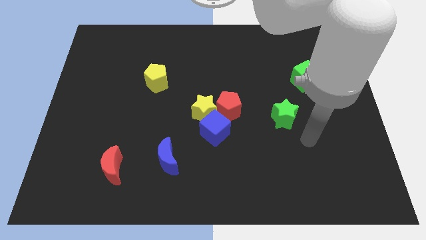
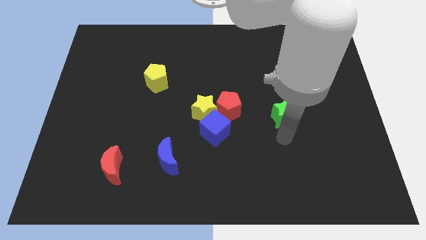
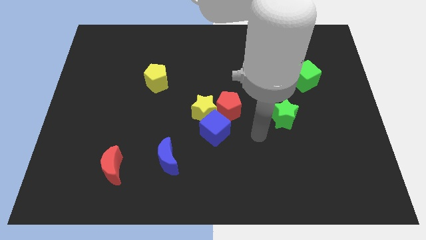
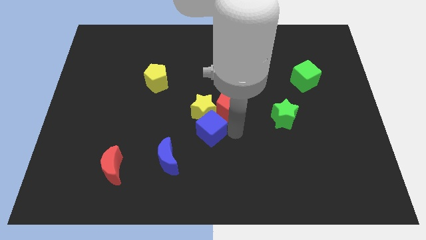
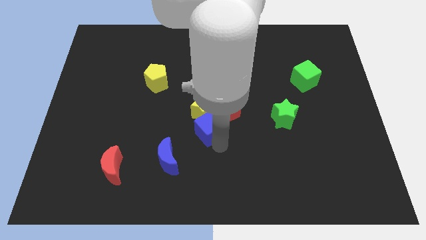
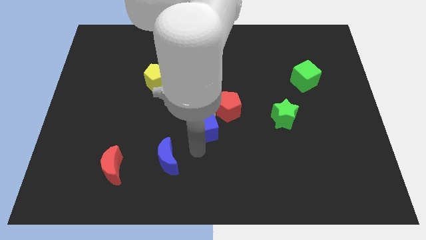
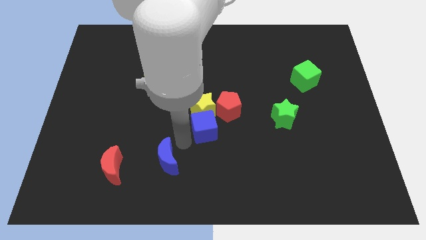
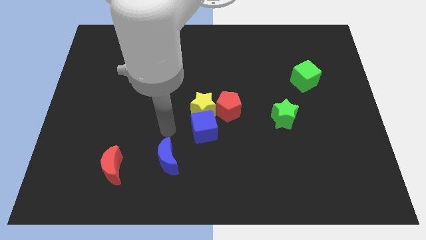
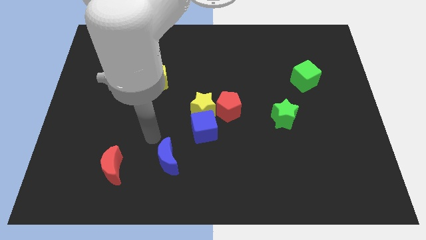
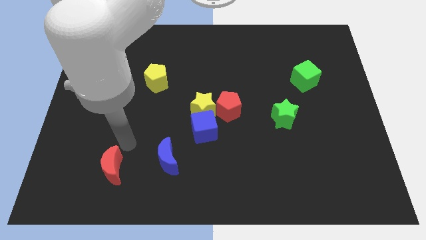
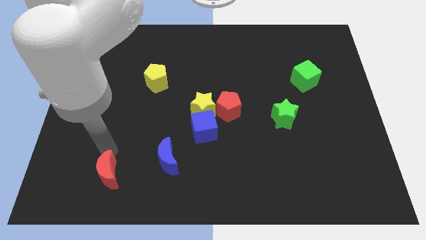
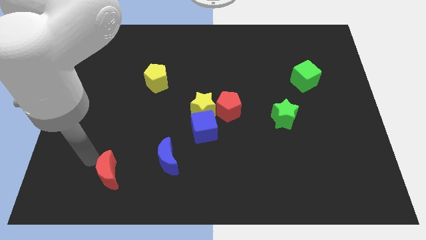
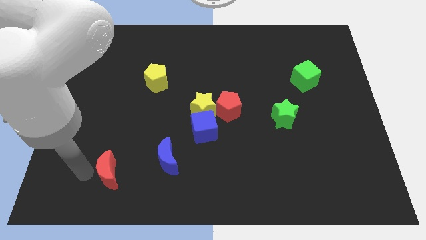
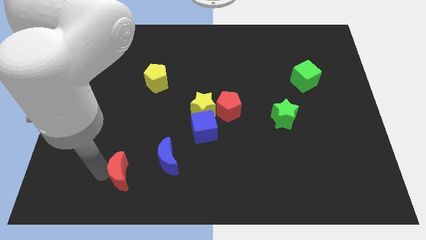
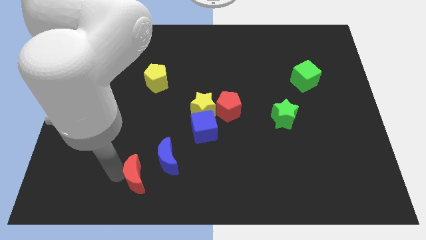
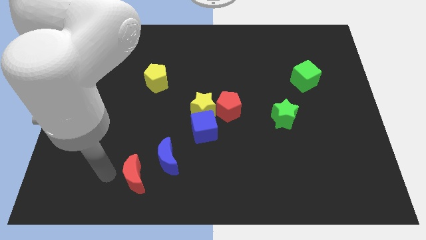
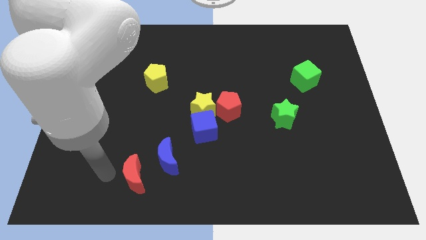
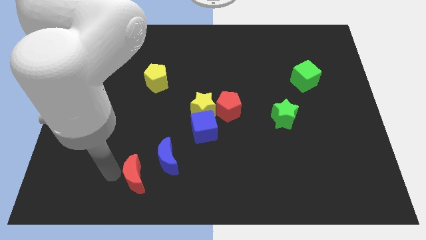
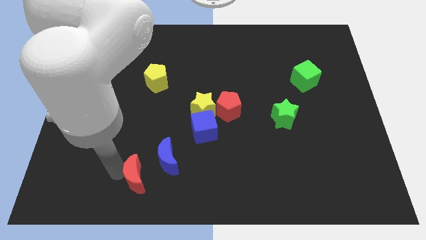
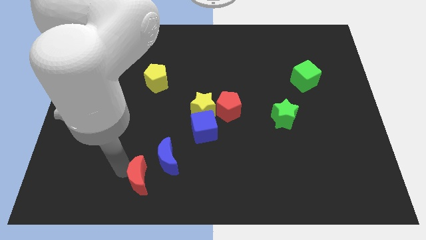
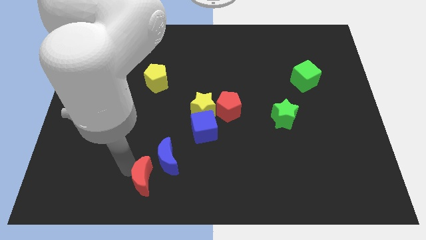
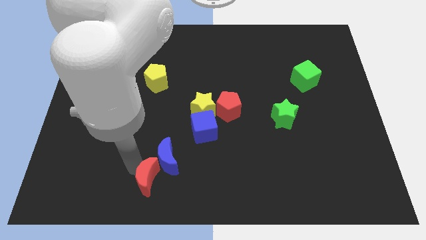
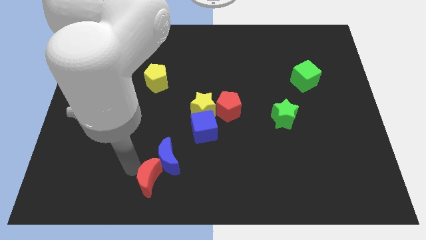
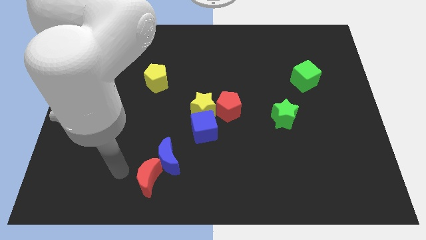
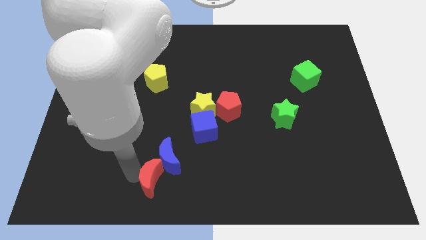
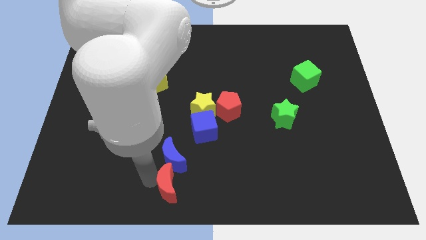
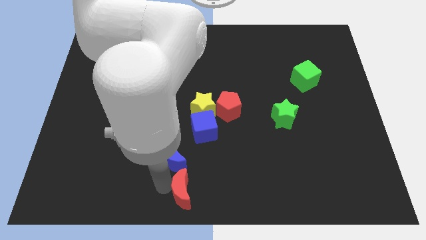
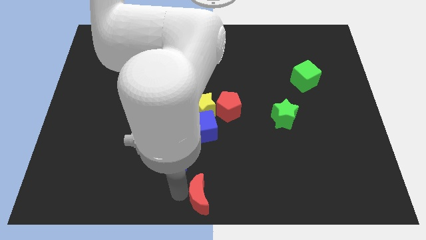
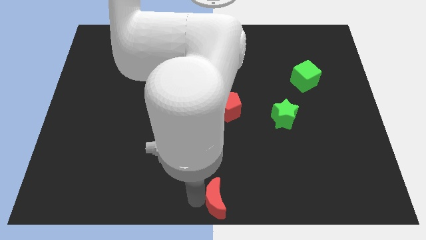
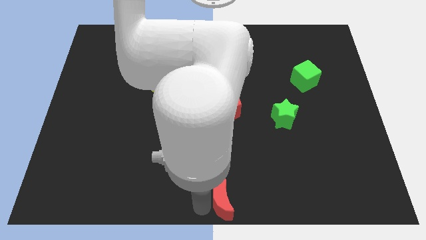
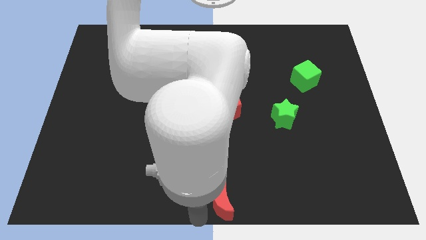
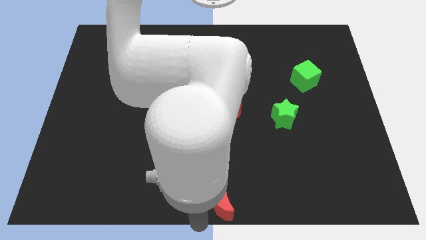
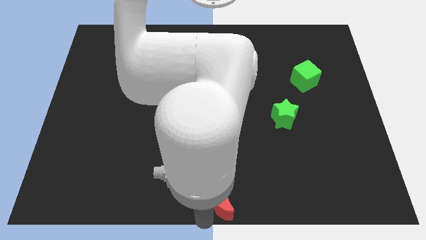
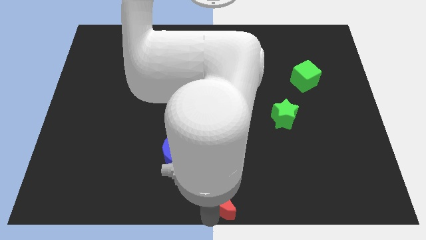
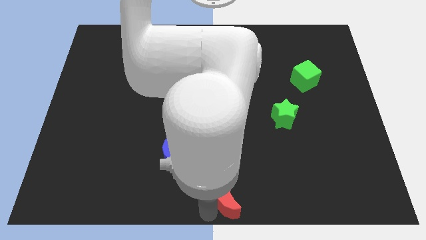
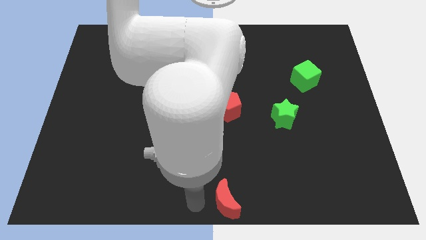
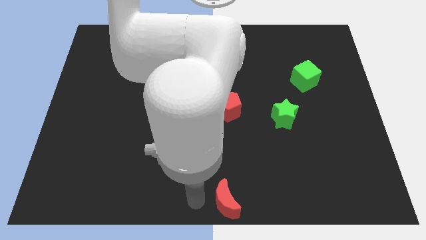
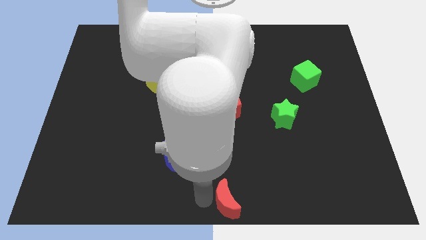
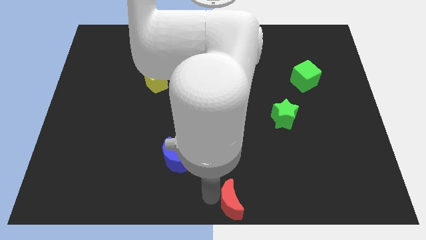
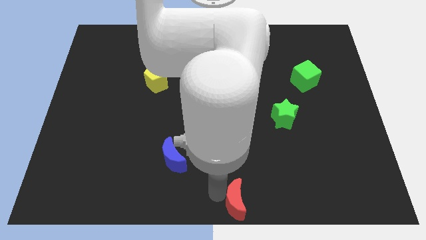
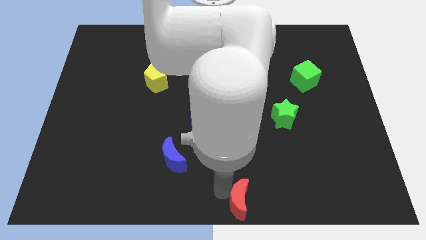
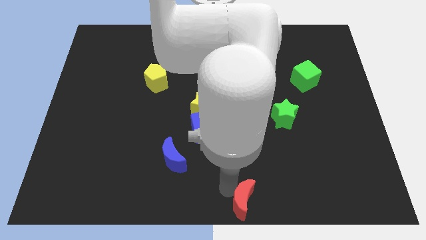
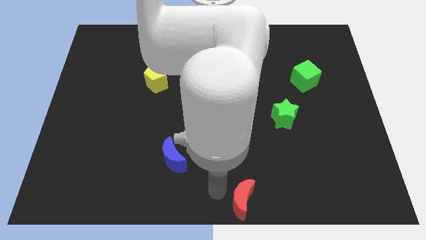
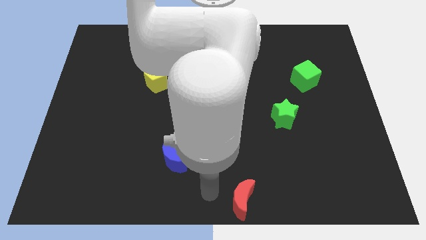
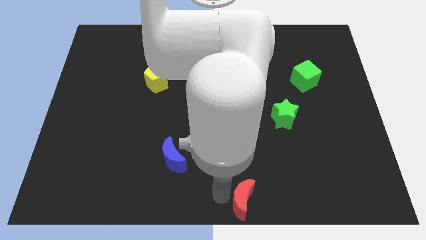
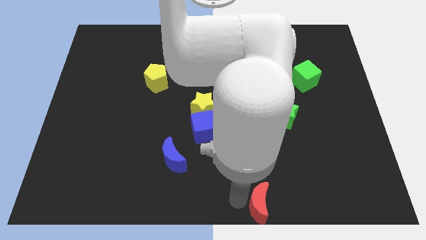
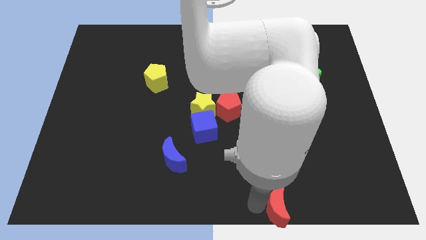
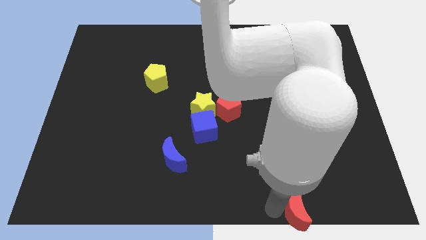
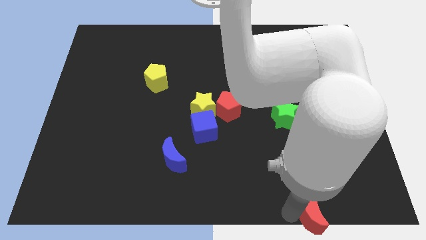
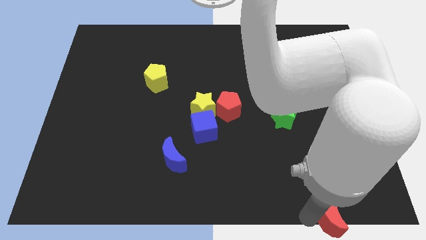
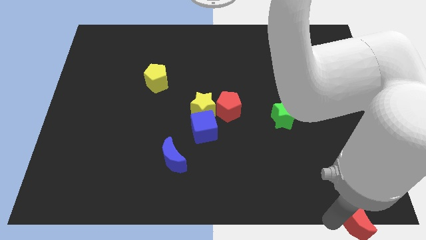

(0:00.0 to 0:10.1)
move the red moon to the lower right corner
